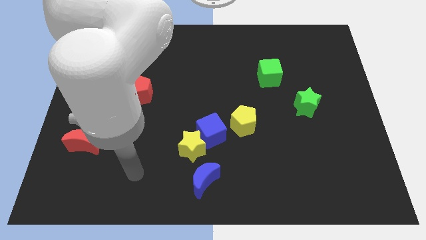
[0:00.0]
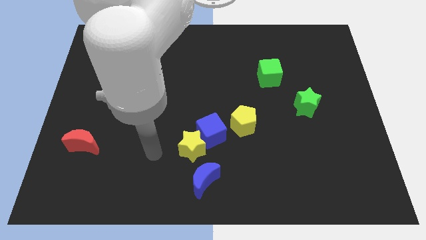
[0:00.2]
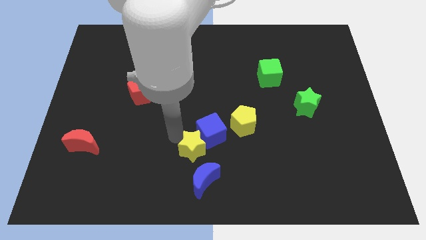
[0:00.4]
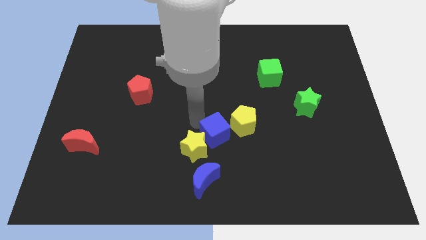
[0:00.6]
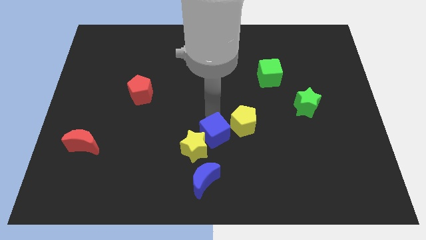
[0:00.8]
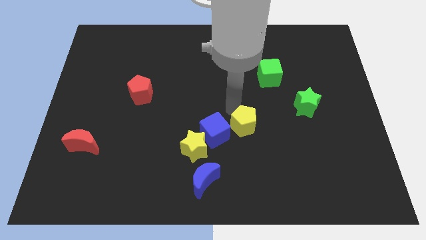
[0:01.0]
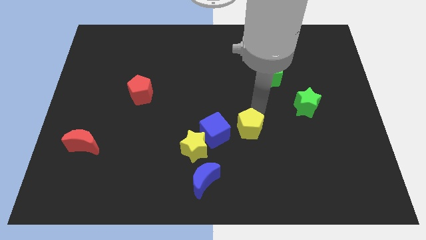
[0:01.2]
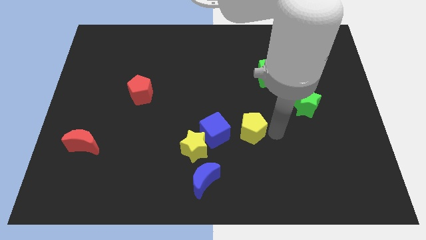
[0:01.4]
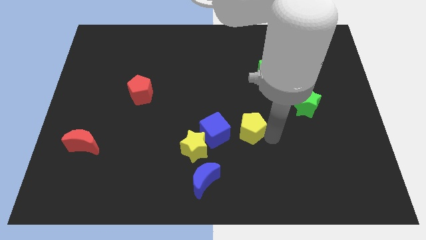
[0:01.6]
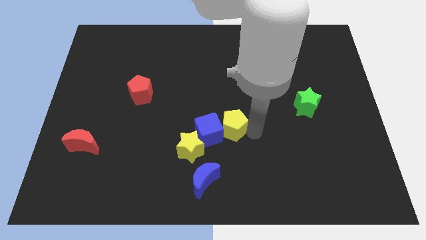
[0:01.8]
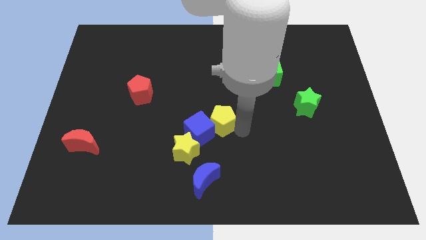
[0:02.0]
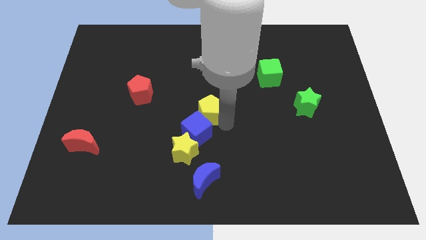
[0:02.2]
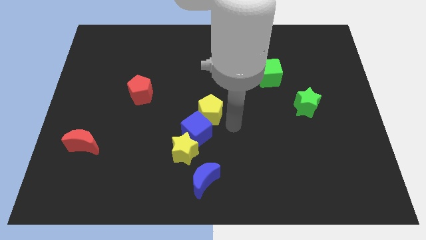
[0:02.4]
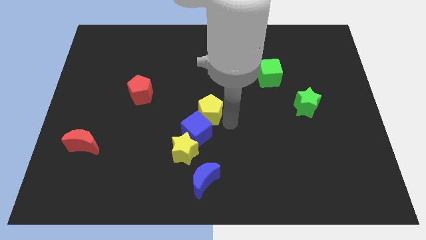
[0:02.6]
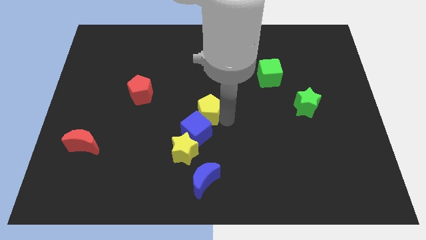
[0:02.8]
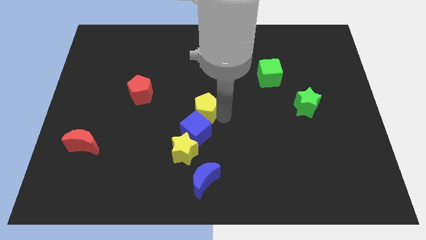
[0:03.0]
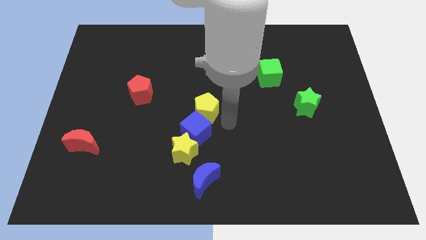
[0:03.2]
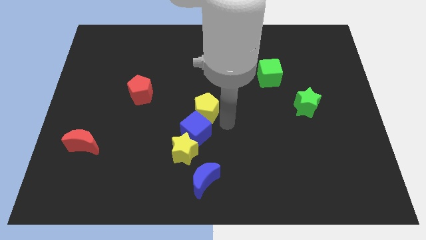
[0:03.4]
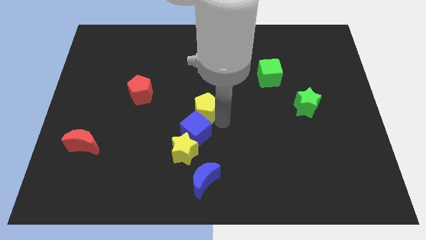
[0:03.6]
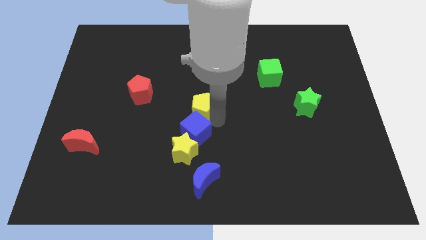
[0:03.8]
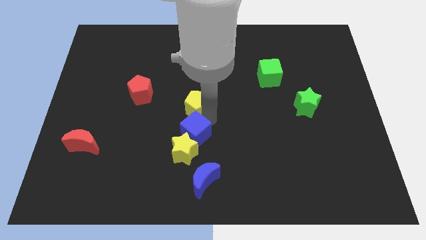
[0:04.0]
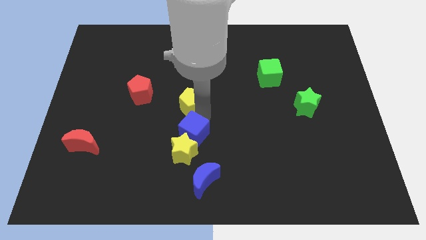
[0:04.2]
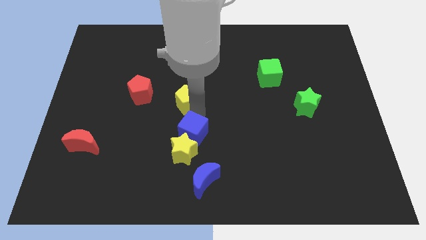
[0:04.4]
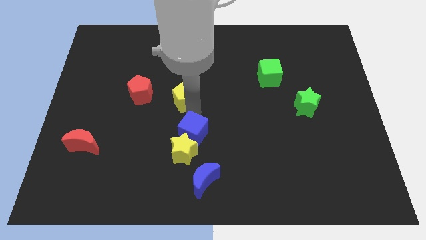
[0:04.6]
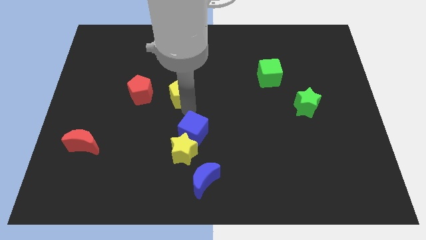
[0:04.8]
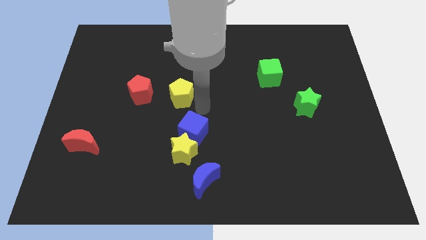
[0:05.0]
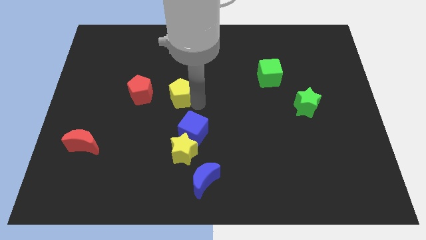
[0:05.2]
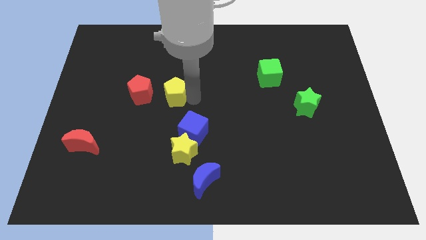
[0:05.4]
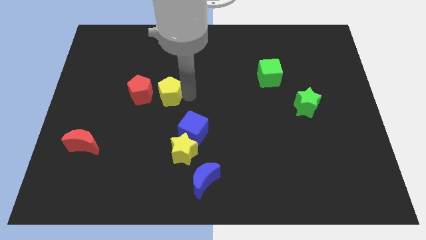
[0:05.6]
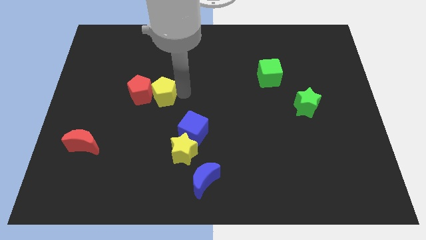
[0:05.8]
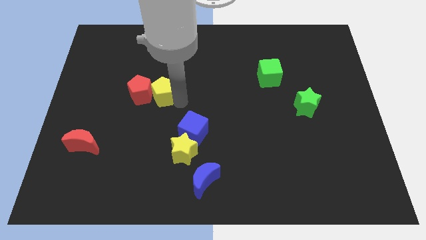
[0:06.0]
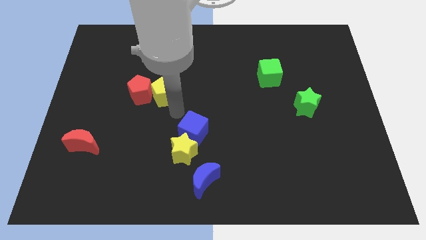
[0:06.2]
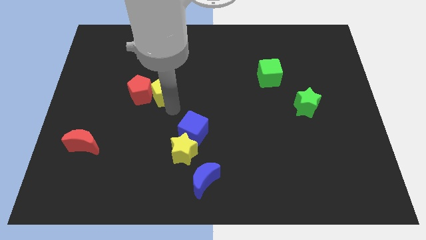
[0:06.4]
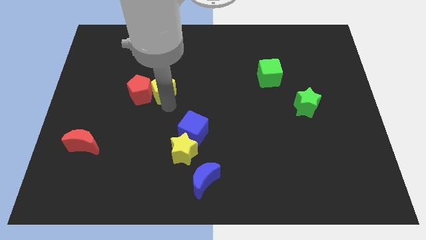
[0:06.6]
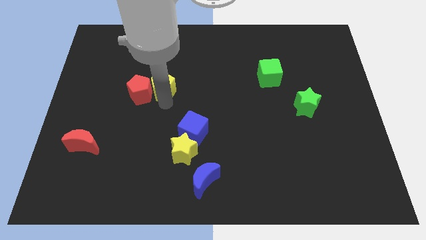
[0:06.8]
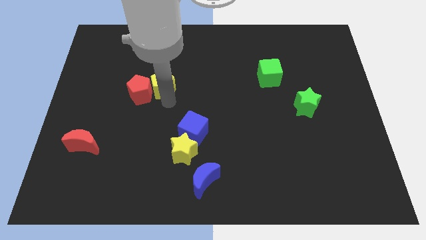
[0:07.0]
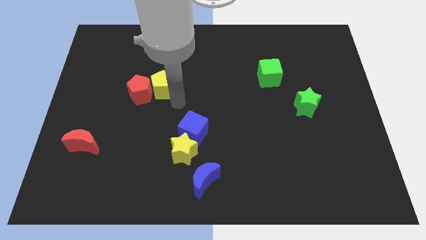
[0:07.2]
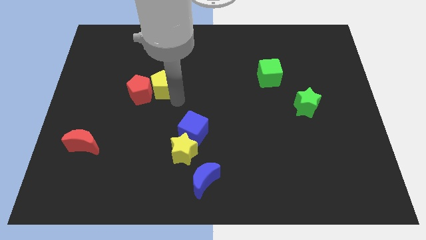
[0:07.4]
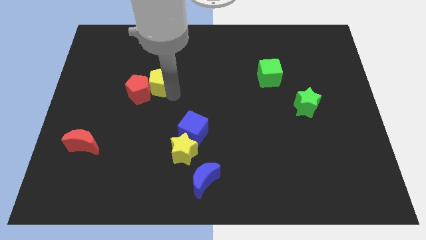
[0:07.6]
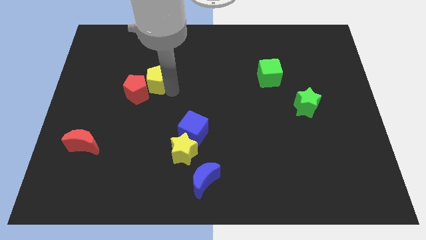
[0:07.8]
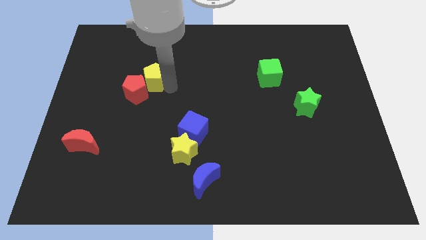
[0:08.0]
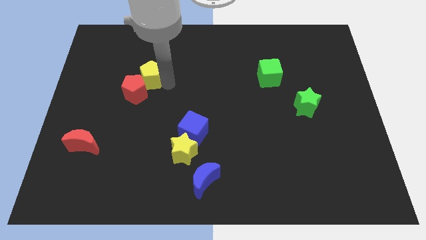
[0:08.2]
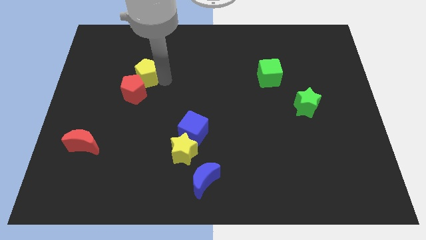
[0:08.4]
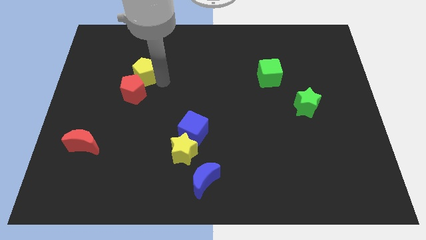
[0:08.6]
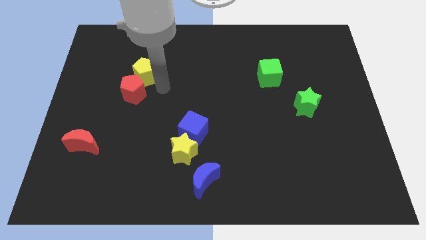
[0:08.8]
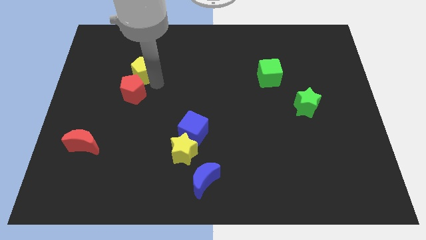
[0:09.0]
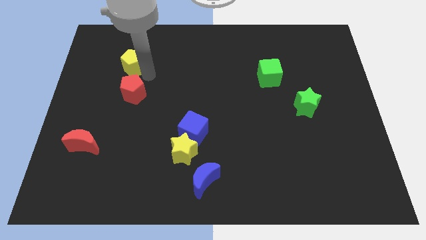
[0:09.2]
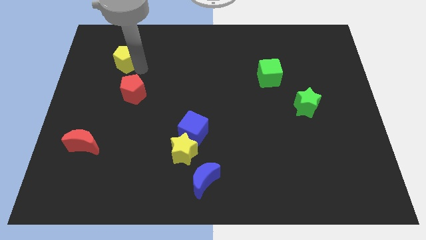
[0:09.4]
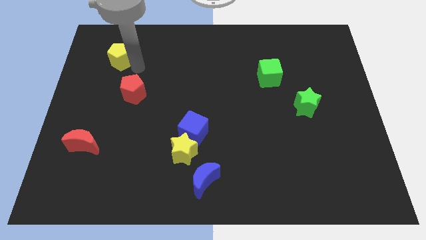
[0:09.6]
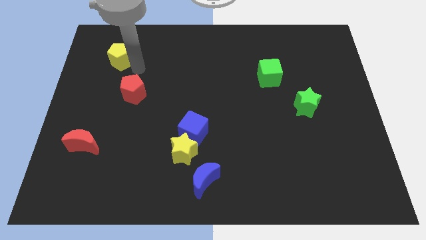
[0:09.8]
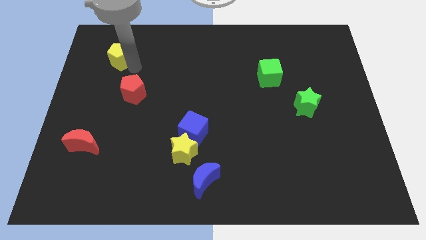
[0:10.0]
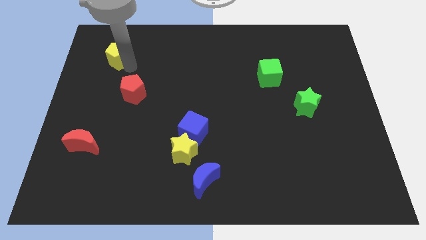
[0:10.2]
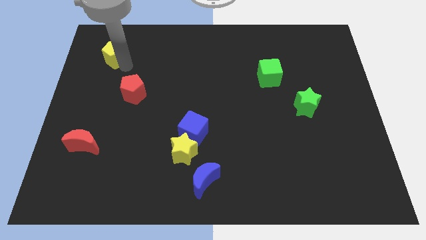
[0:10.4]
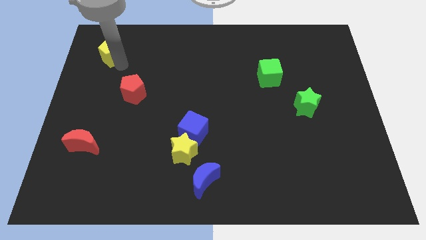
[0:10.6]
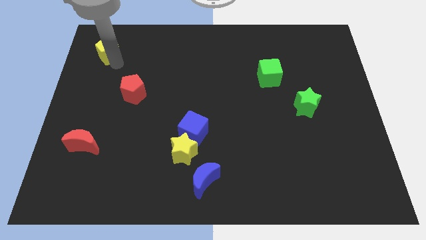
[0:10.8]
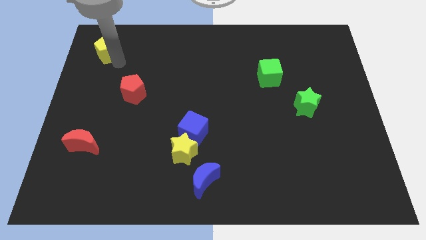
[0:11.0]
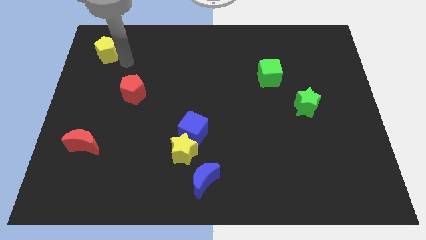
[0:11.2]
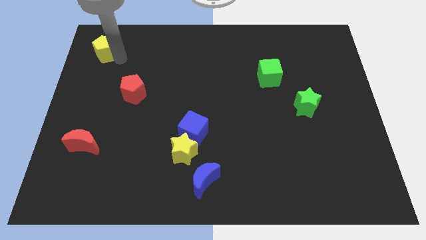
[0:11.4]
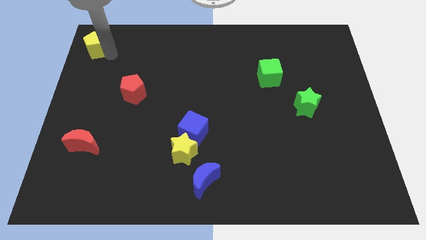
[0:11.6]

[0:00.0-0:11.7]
slide the yellow pentagon to the top left

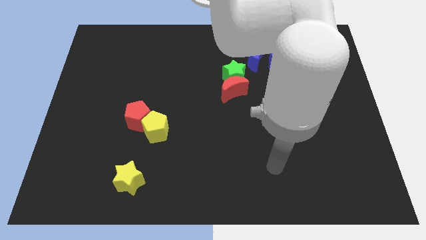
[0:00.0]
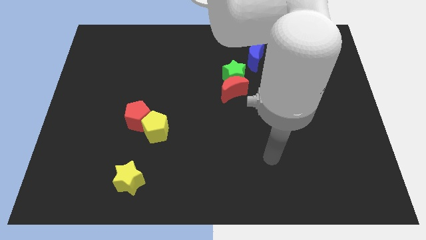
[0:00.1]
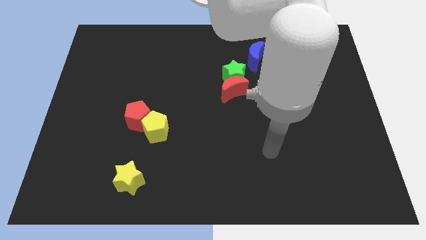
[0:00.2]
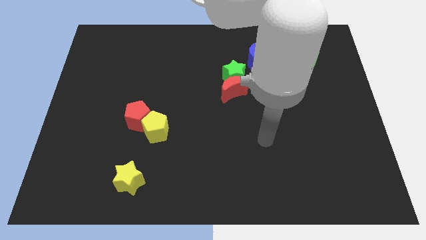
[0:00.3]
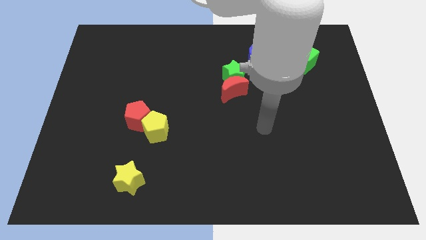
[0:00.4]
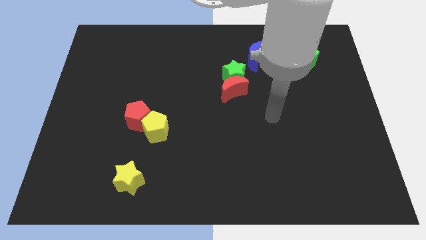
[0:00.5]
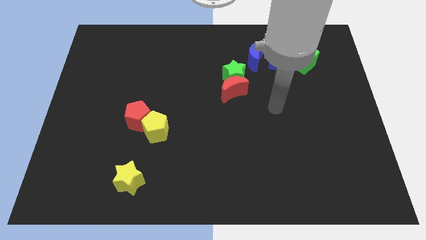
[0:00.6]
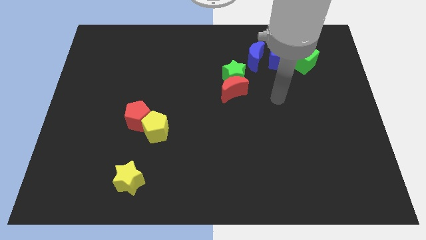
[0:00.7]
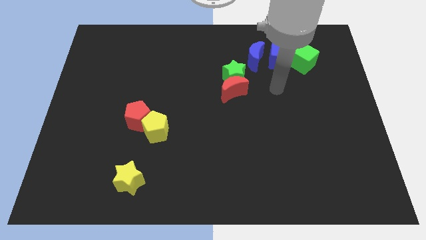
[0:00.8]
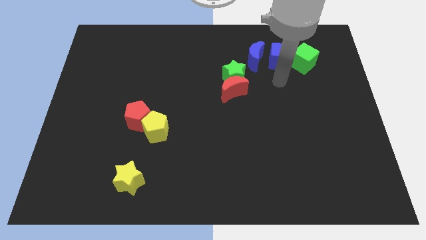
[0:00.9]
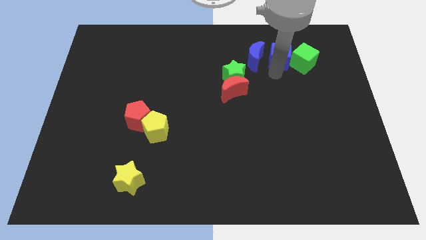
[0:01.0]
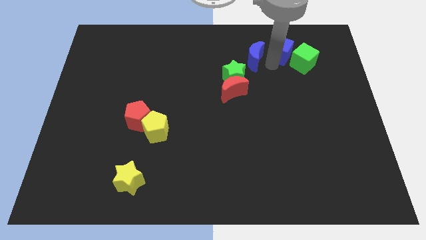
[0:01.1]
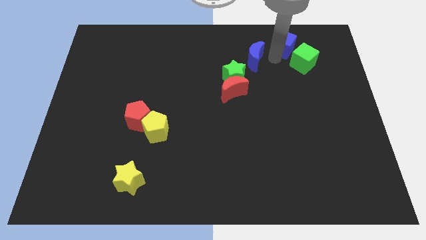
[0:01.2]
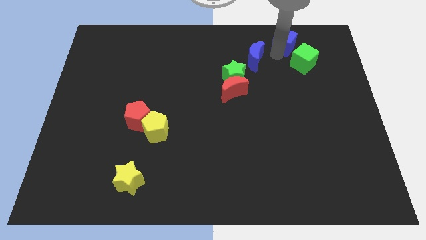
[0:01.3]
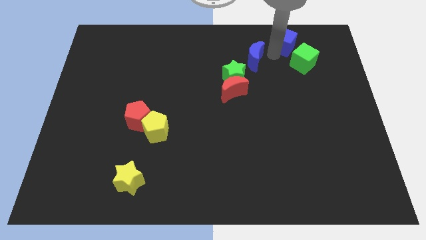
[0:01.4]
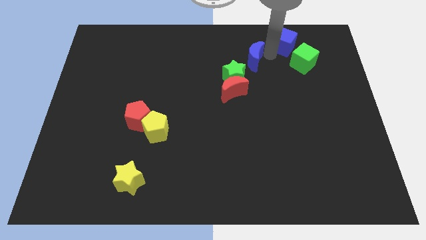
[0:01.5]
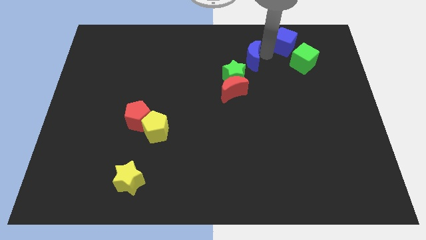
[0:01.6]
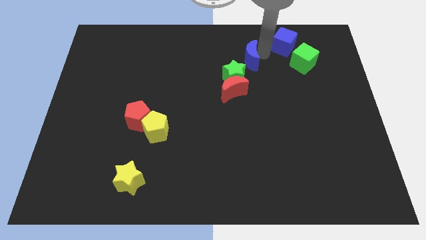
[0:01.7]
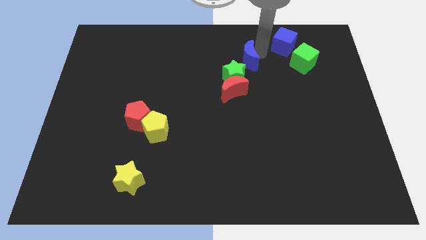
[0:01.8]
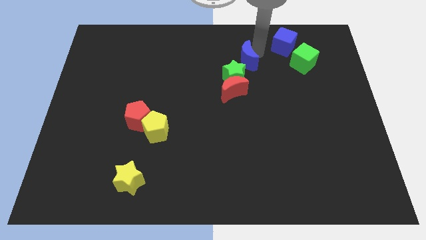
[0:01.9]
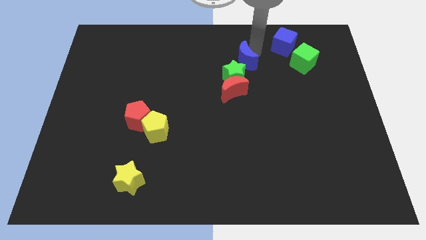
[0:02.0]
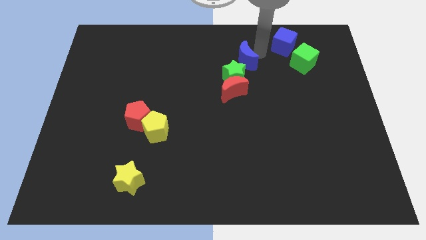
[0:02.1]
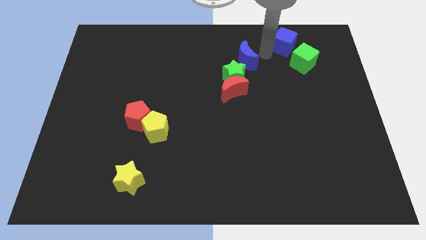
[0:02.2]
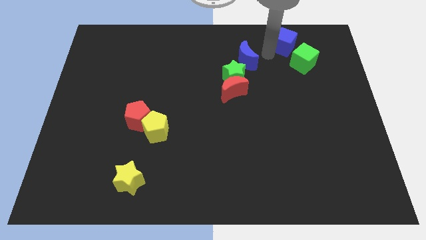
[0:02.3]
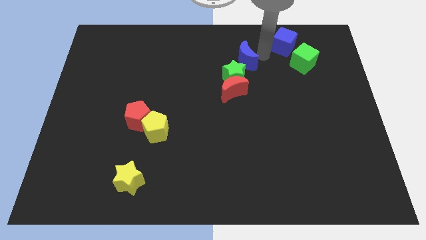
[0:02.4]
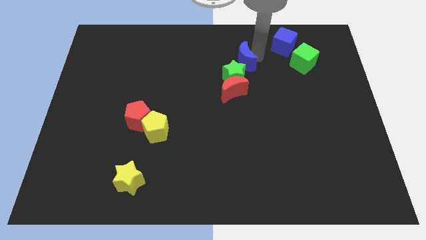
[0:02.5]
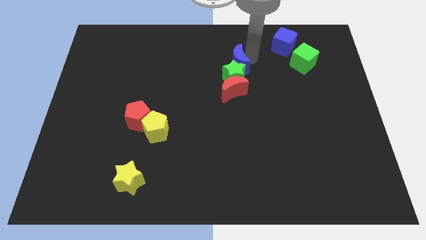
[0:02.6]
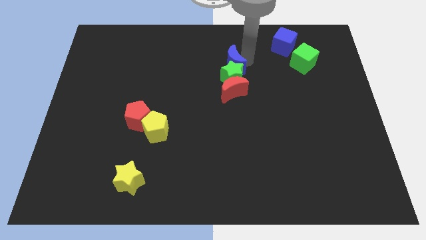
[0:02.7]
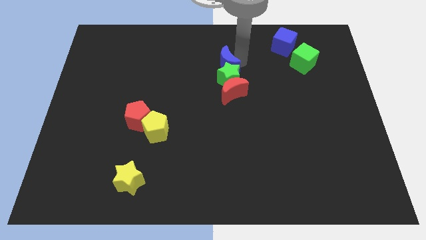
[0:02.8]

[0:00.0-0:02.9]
slide the blue moon to the center of the board
